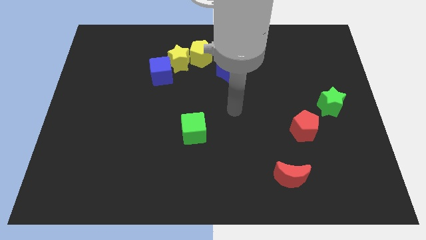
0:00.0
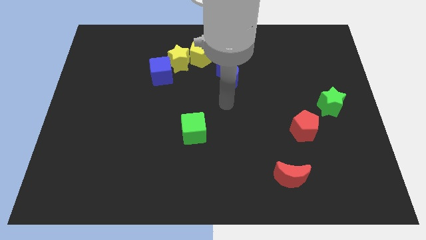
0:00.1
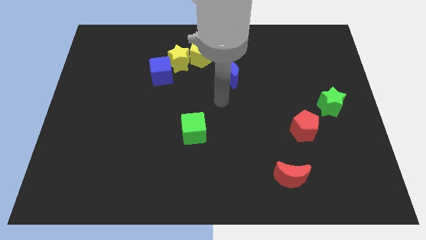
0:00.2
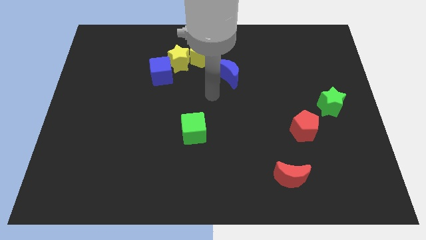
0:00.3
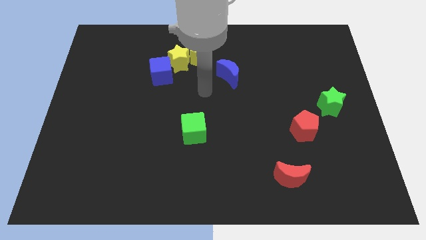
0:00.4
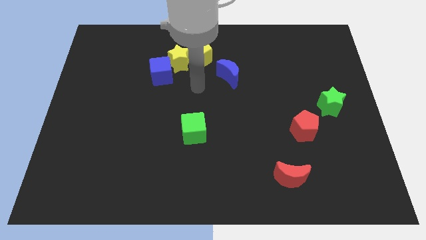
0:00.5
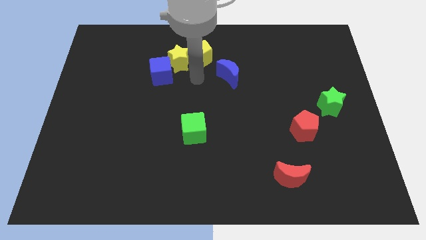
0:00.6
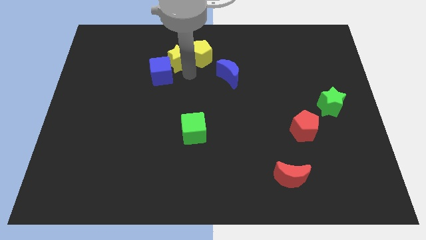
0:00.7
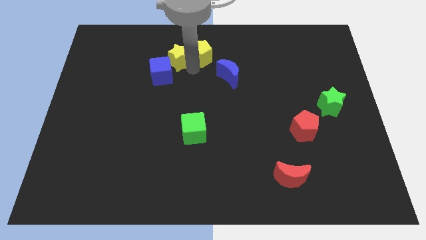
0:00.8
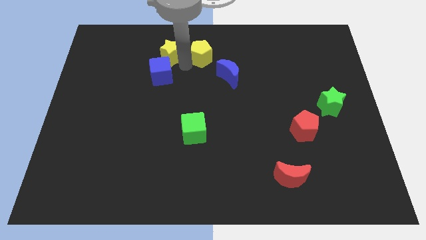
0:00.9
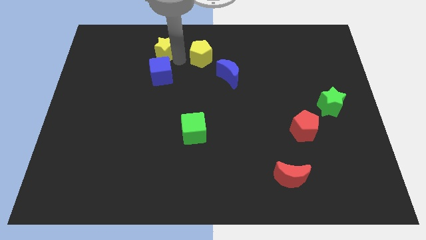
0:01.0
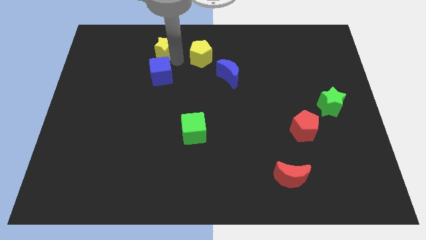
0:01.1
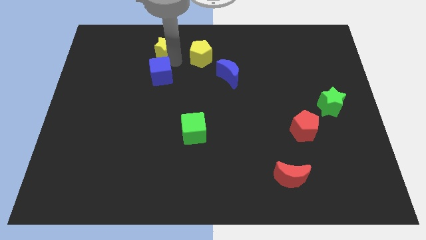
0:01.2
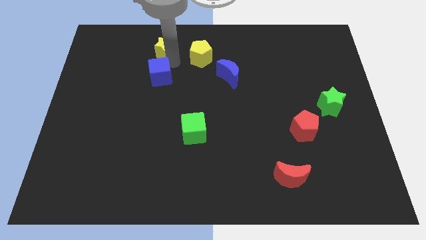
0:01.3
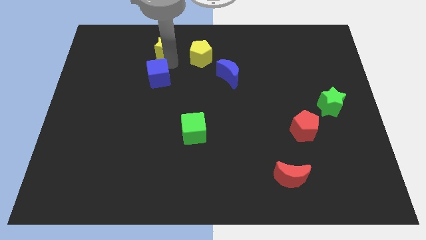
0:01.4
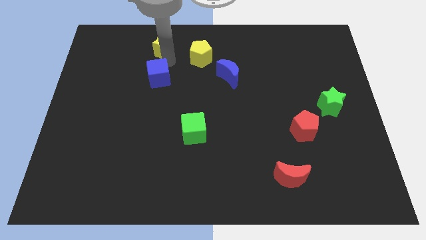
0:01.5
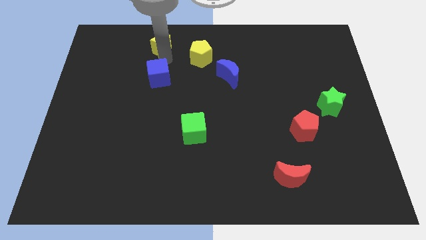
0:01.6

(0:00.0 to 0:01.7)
pull the blue cube apart from the yellow star

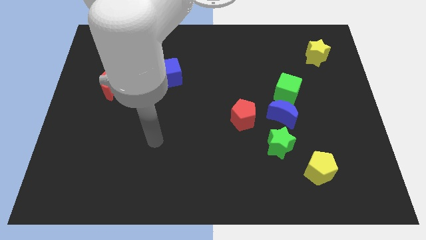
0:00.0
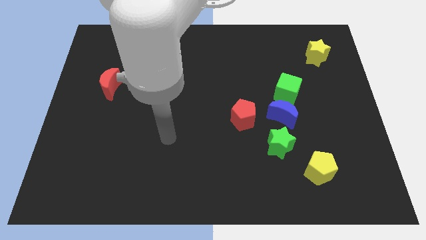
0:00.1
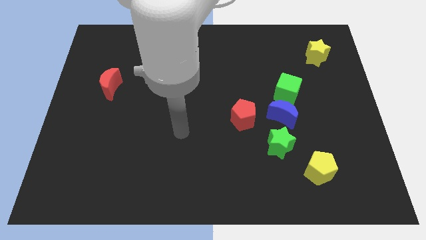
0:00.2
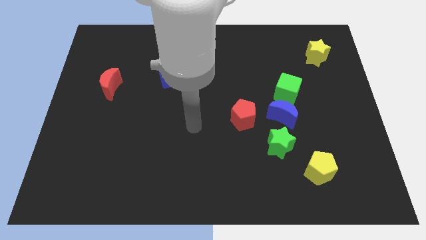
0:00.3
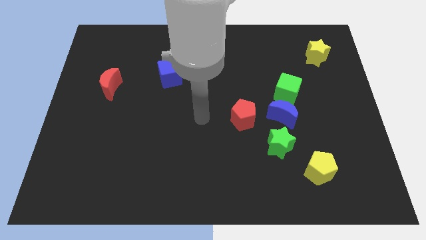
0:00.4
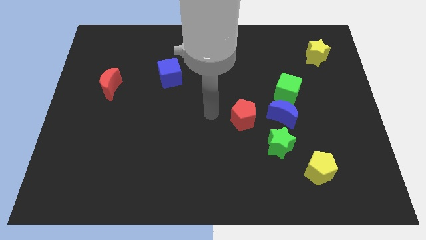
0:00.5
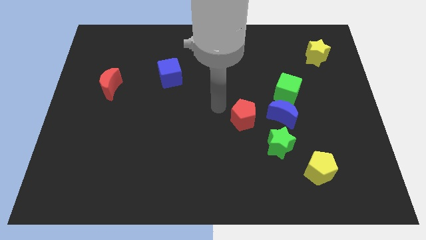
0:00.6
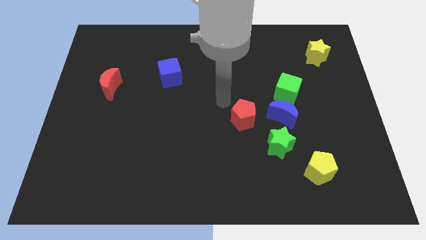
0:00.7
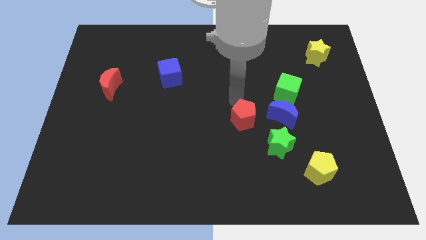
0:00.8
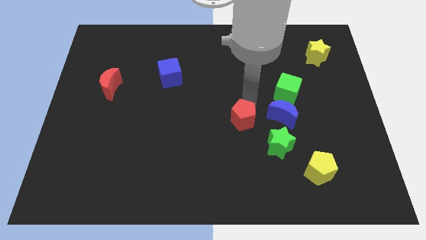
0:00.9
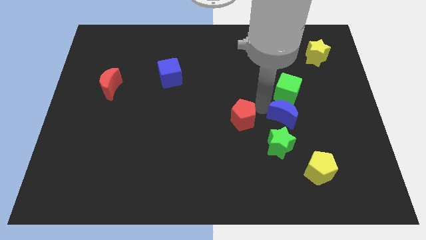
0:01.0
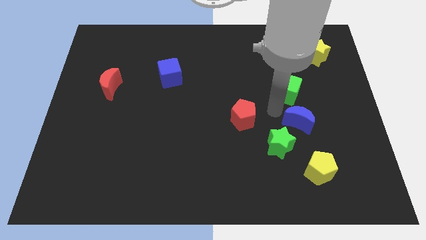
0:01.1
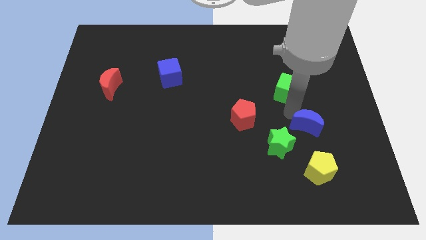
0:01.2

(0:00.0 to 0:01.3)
move the green cube away from the blue moon

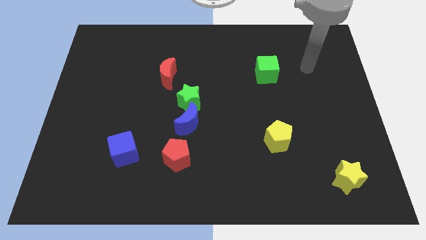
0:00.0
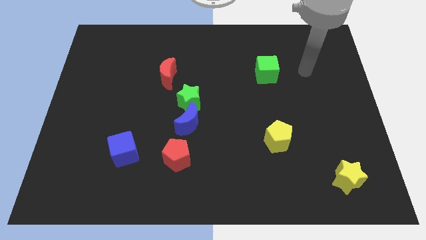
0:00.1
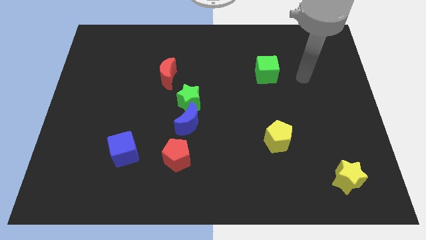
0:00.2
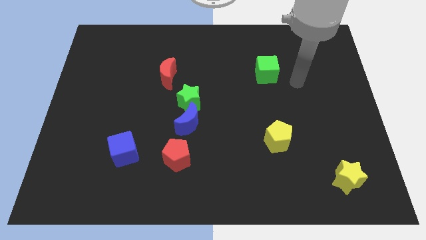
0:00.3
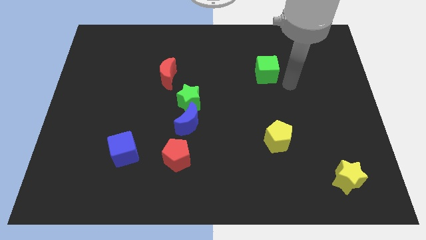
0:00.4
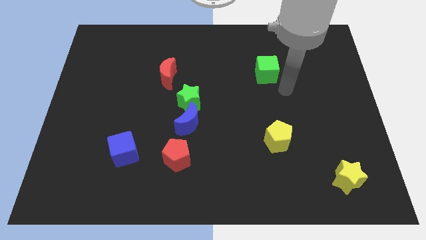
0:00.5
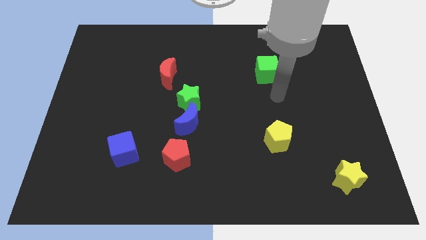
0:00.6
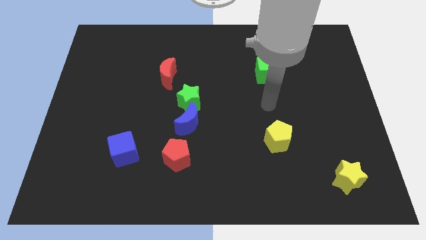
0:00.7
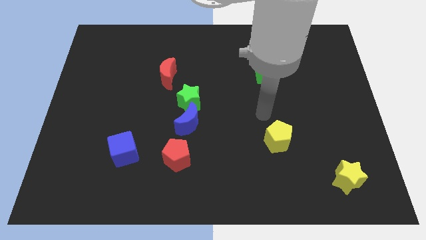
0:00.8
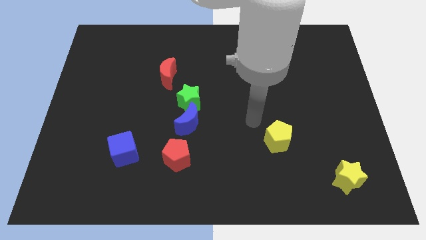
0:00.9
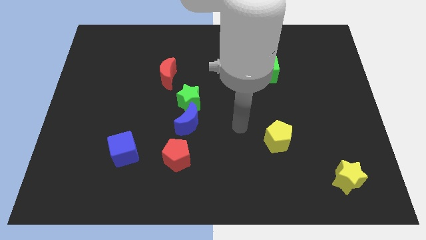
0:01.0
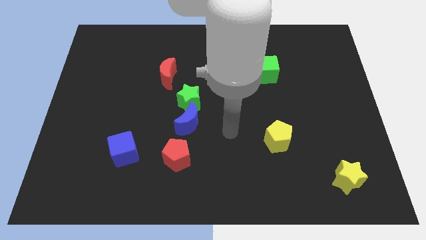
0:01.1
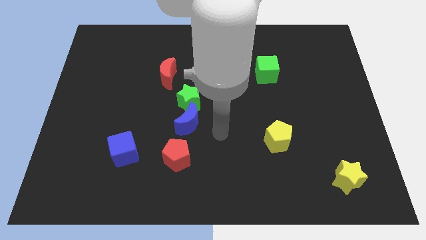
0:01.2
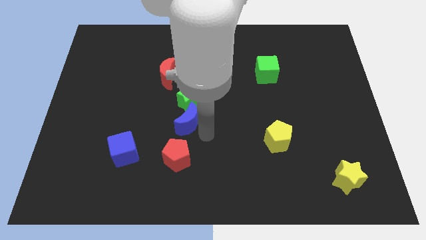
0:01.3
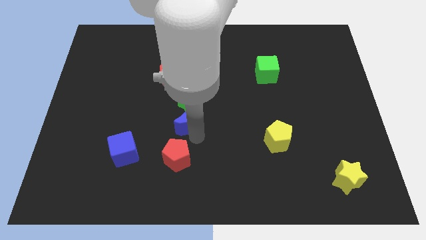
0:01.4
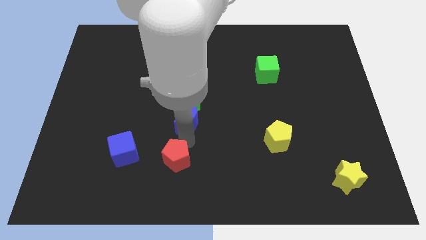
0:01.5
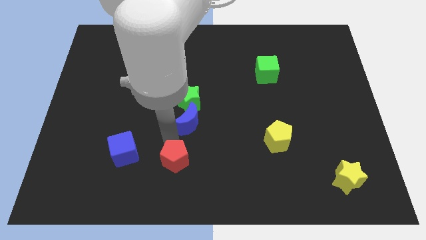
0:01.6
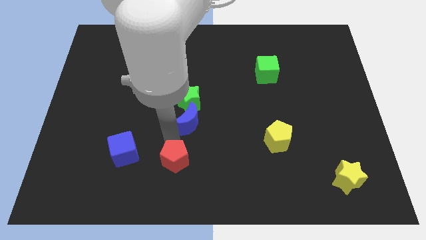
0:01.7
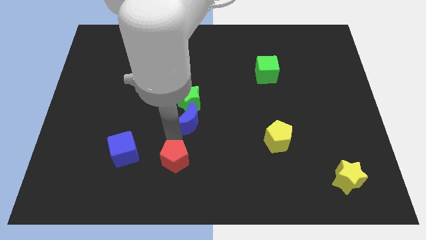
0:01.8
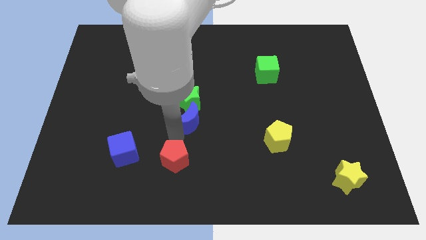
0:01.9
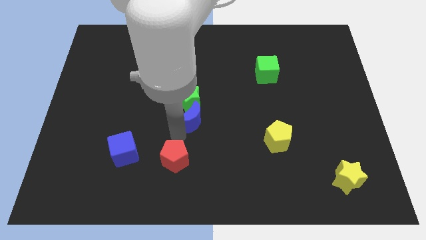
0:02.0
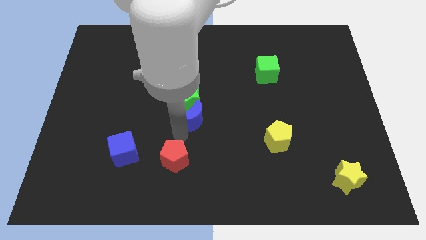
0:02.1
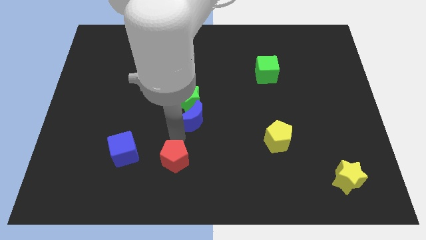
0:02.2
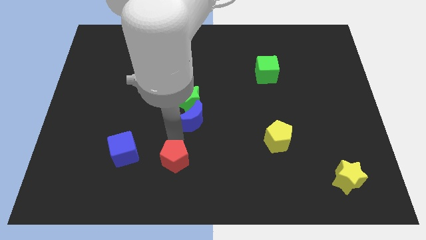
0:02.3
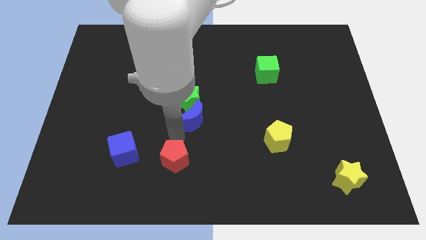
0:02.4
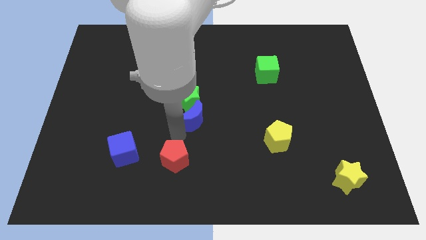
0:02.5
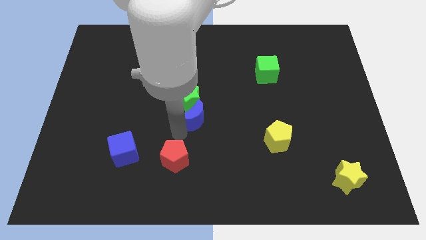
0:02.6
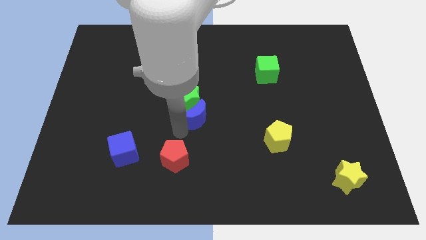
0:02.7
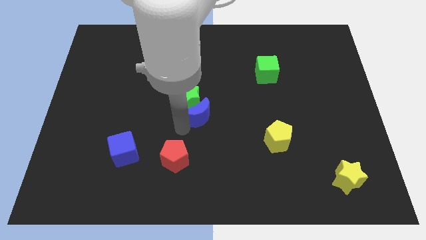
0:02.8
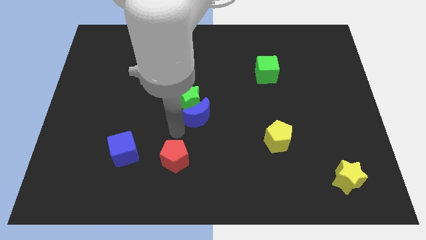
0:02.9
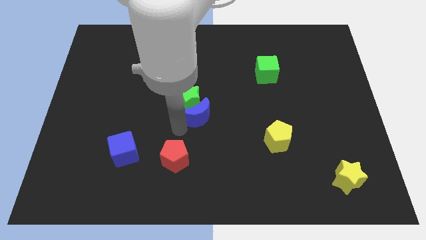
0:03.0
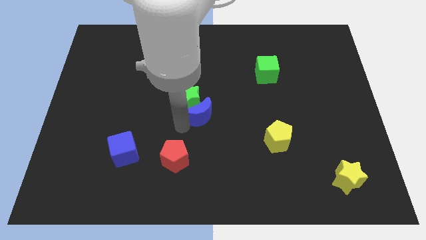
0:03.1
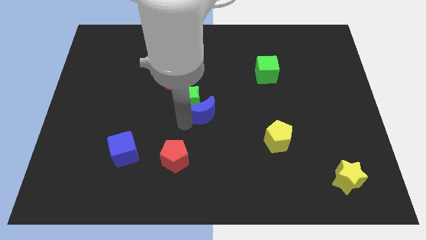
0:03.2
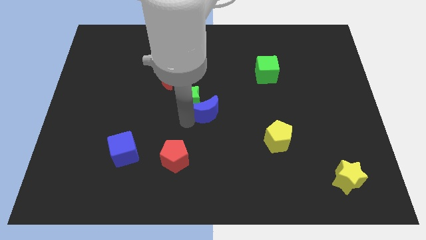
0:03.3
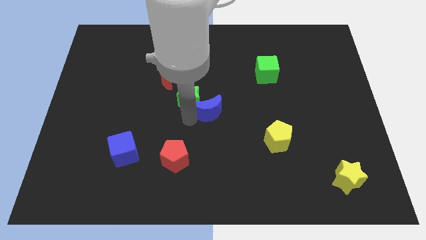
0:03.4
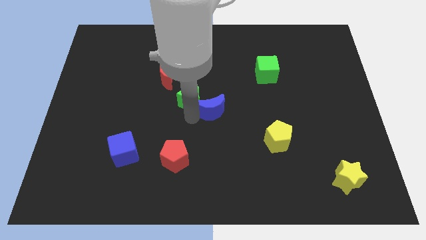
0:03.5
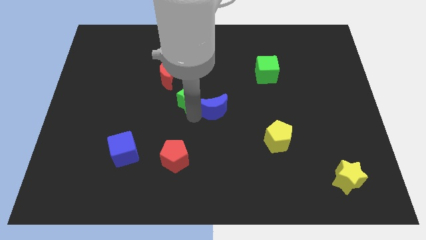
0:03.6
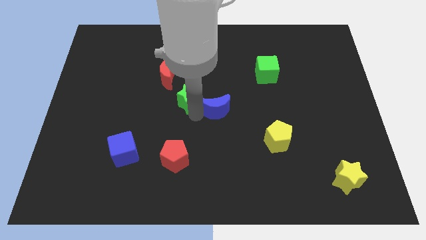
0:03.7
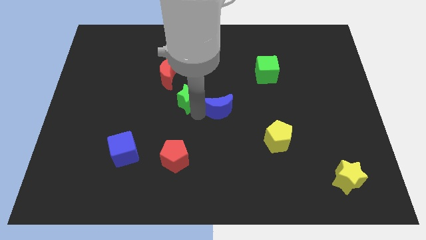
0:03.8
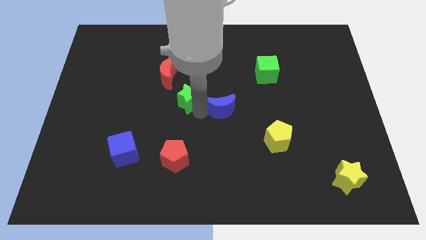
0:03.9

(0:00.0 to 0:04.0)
pull the blue moon apart from the green star and red pentagon

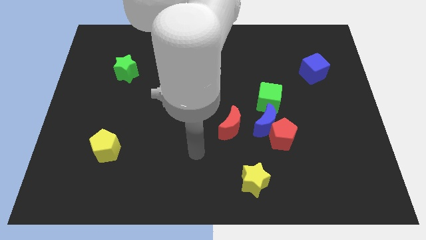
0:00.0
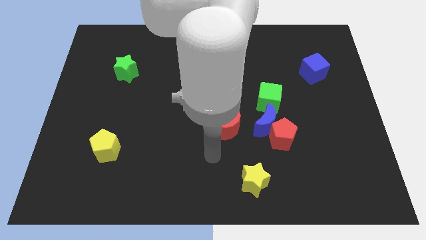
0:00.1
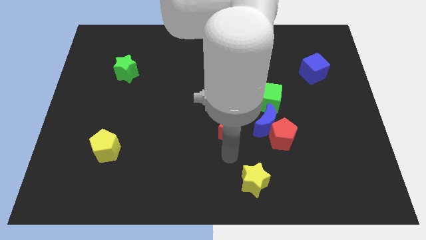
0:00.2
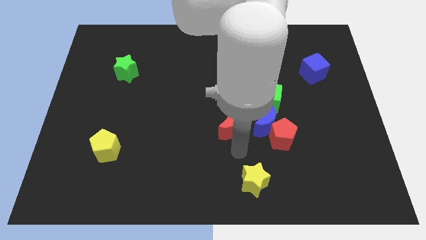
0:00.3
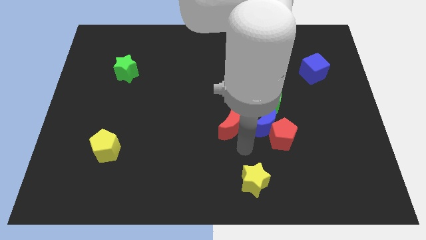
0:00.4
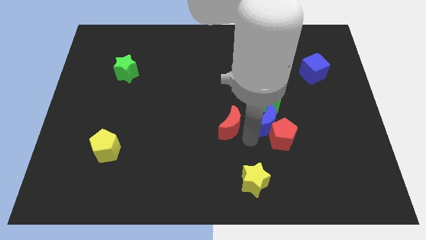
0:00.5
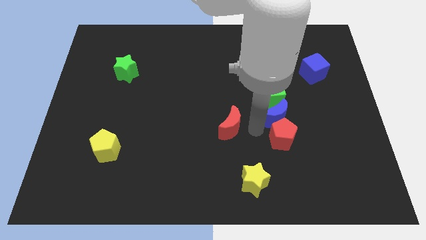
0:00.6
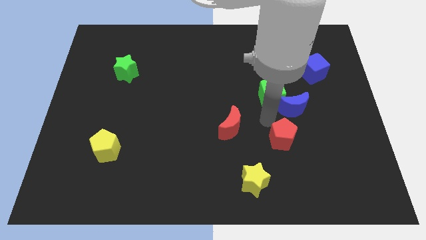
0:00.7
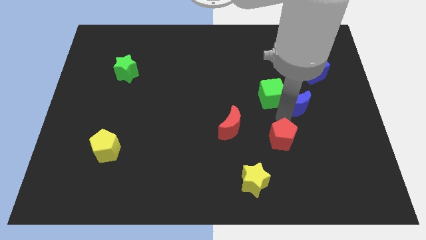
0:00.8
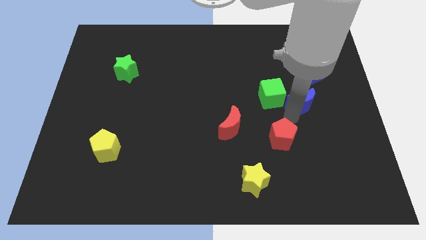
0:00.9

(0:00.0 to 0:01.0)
move the red pentagon away from the blue moon

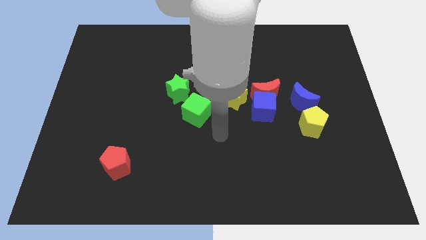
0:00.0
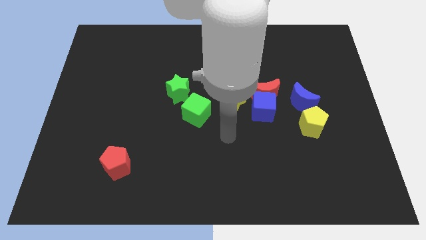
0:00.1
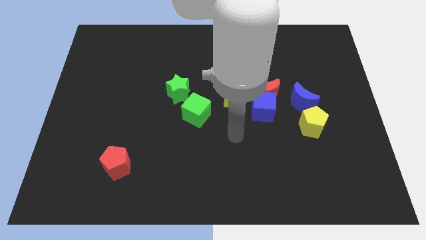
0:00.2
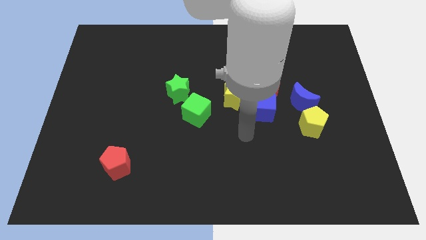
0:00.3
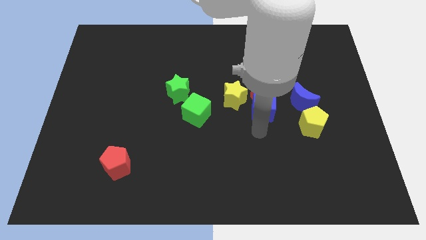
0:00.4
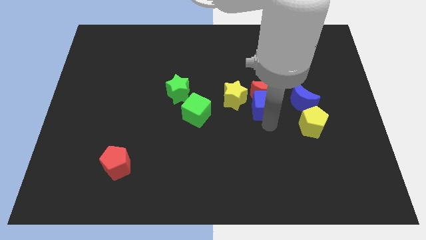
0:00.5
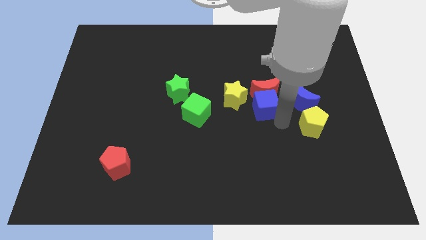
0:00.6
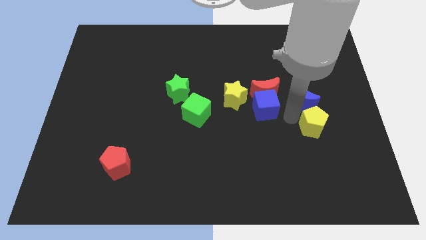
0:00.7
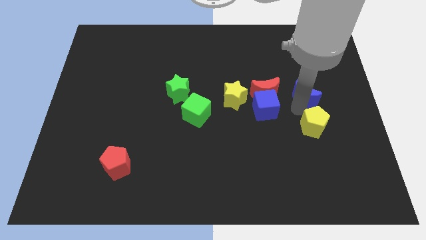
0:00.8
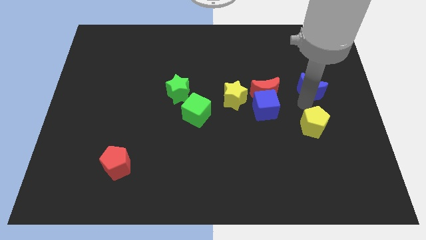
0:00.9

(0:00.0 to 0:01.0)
pull the yellow pentagon apart from the blue moon

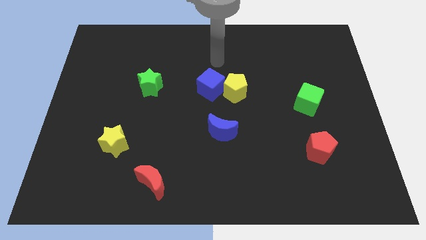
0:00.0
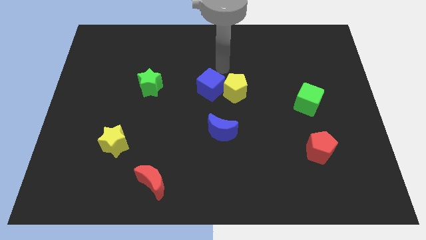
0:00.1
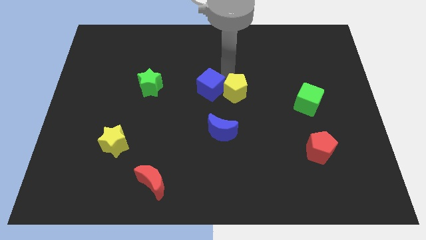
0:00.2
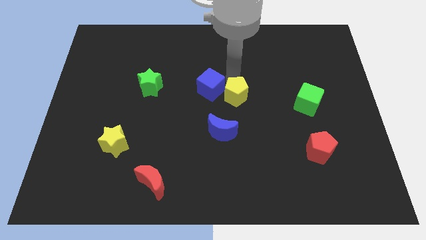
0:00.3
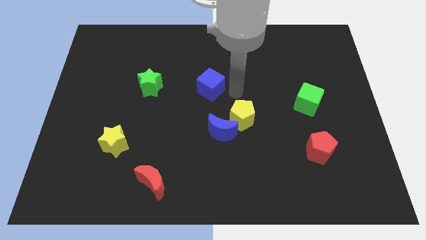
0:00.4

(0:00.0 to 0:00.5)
separate the blue cube from the yellow pentagon
